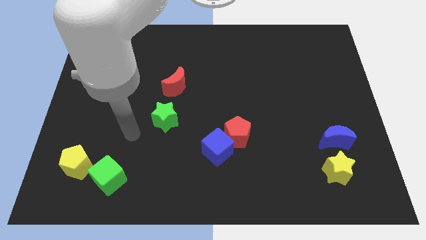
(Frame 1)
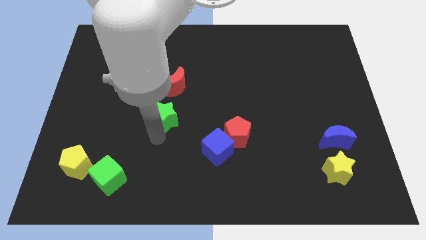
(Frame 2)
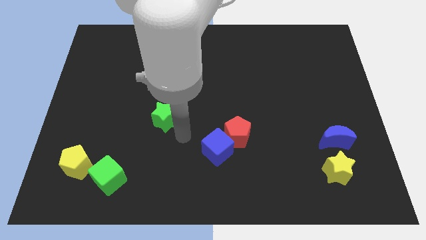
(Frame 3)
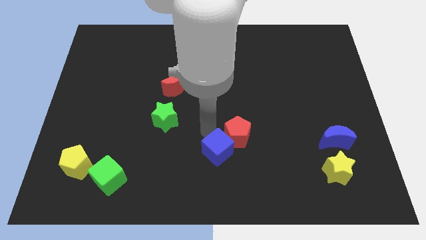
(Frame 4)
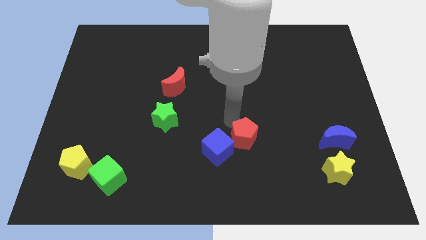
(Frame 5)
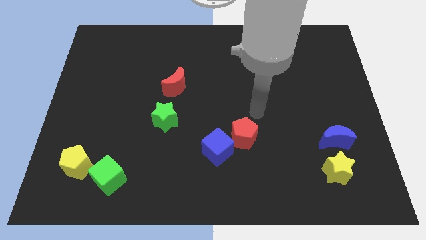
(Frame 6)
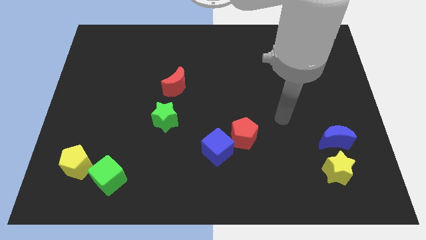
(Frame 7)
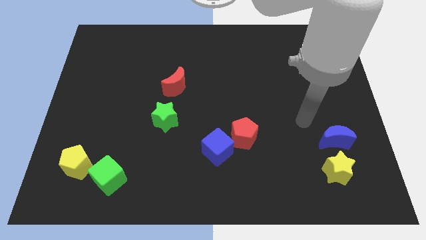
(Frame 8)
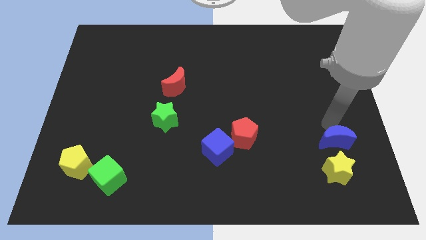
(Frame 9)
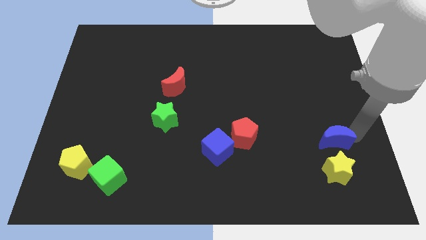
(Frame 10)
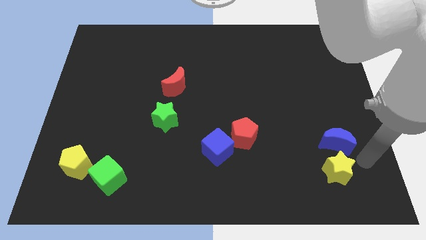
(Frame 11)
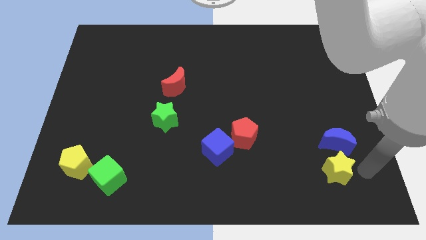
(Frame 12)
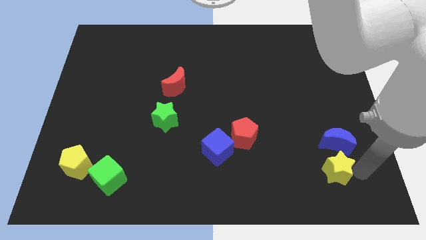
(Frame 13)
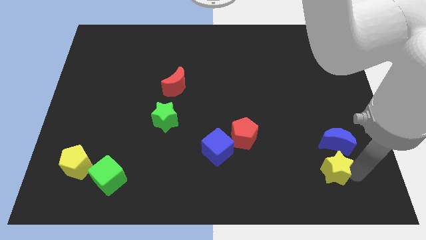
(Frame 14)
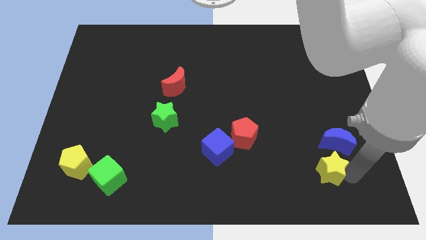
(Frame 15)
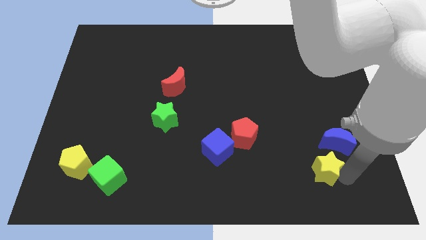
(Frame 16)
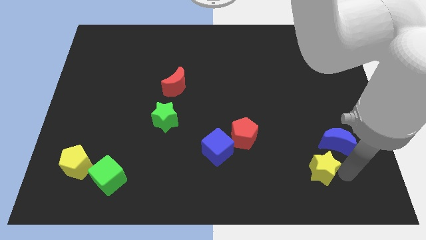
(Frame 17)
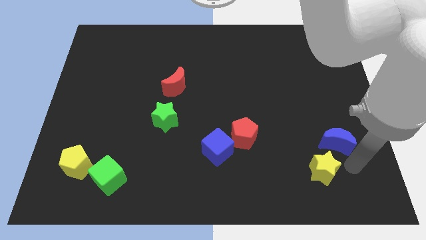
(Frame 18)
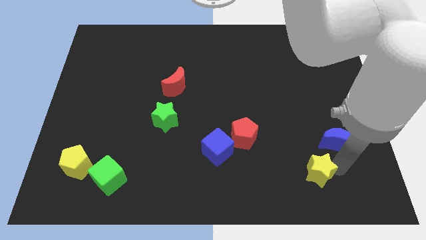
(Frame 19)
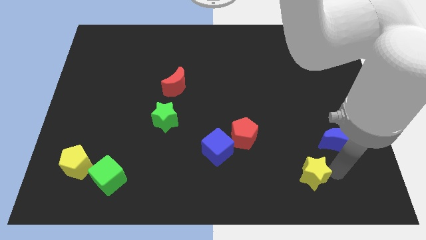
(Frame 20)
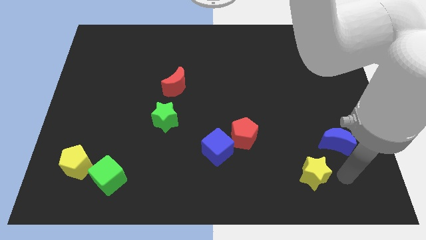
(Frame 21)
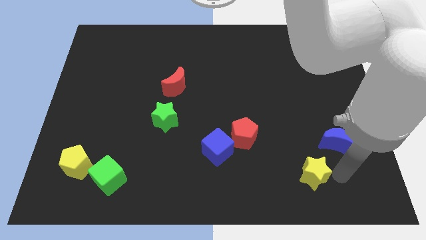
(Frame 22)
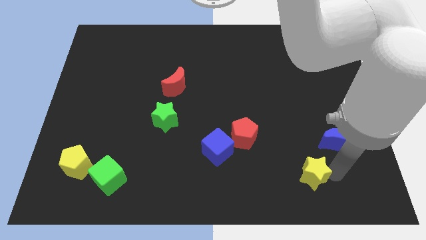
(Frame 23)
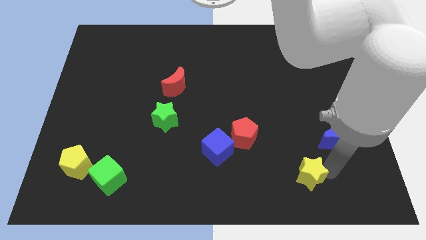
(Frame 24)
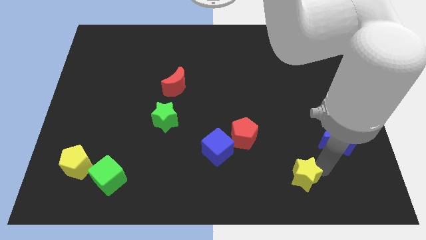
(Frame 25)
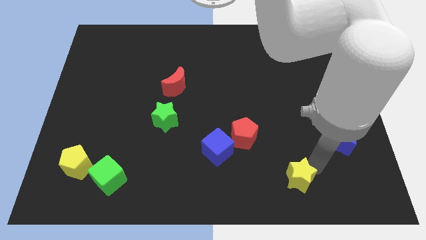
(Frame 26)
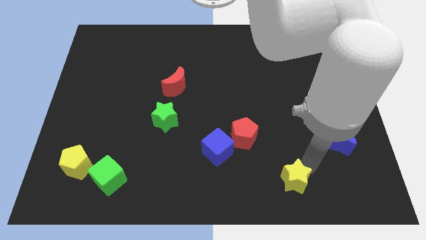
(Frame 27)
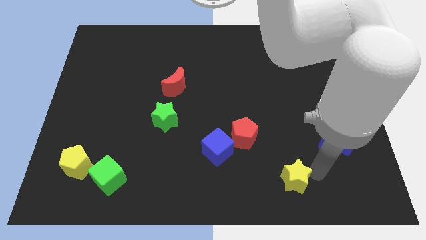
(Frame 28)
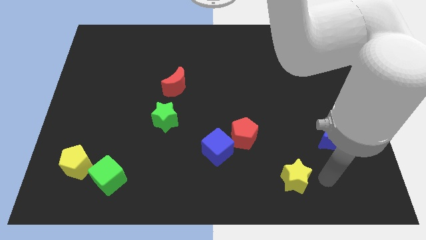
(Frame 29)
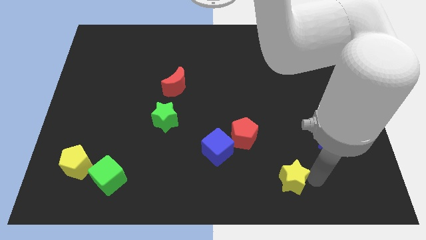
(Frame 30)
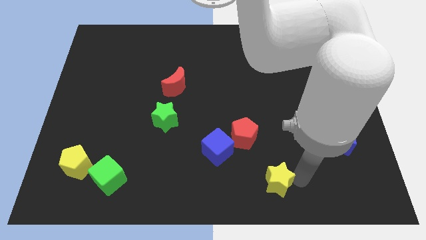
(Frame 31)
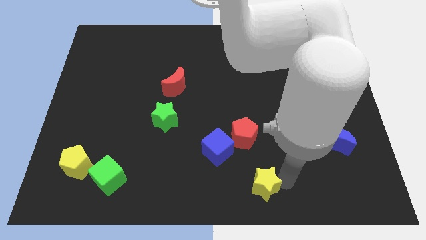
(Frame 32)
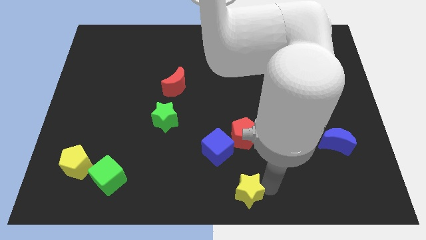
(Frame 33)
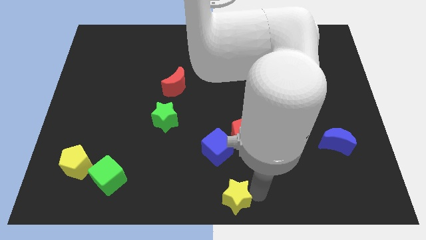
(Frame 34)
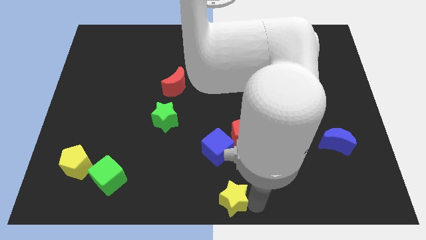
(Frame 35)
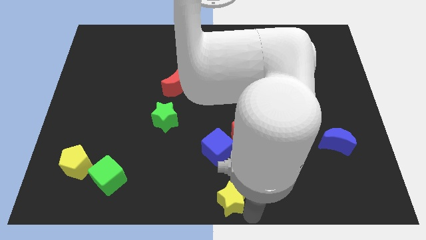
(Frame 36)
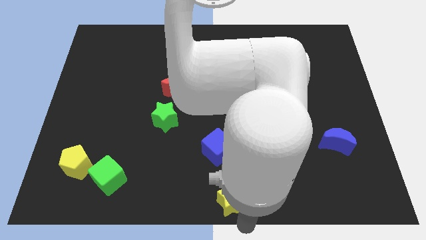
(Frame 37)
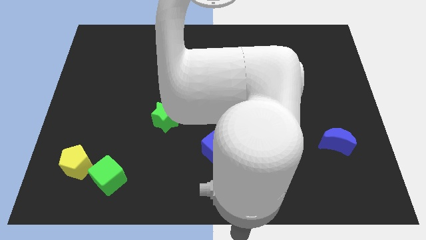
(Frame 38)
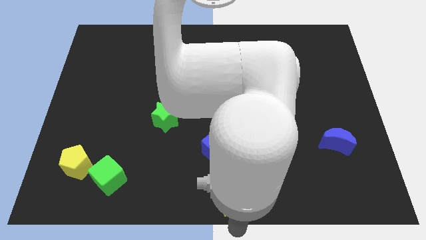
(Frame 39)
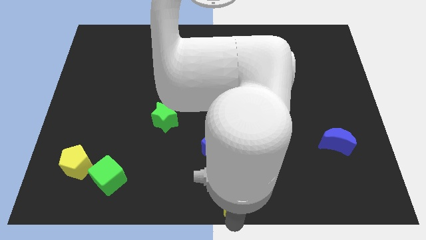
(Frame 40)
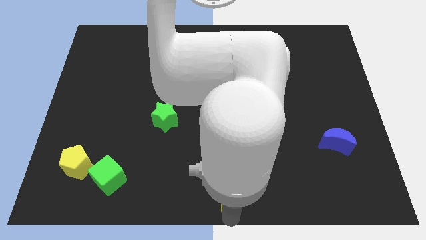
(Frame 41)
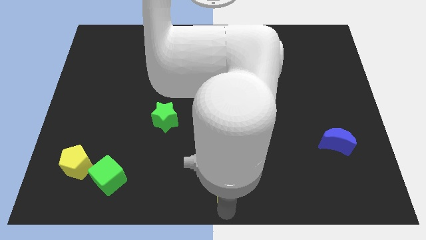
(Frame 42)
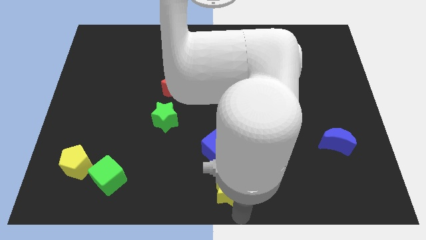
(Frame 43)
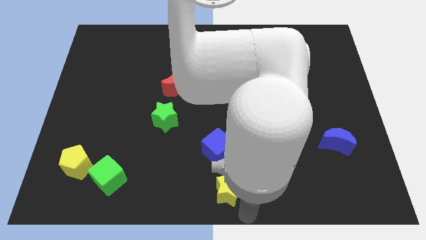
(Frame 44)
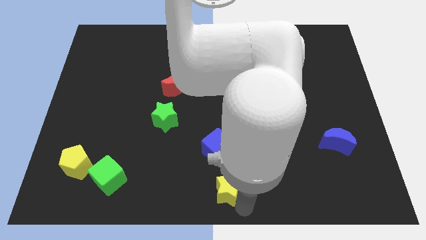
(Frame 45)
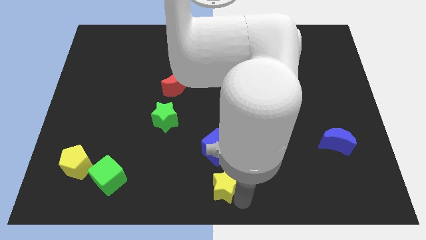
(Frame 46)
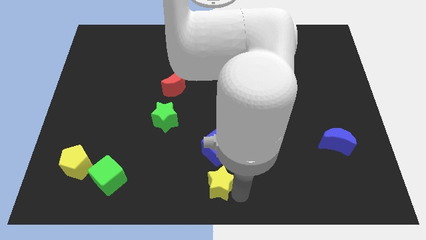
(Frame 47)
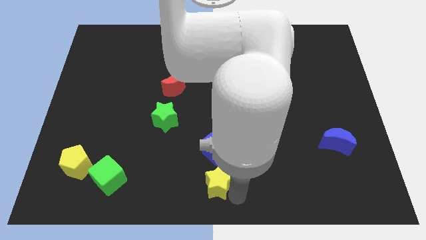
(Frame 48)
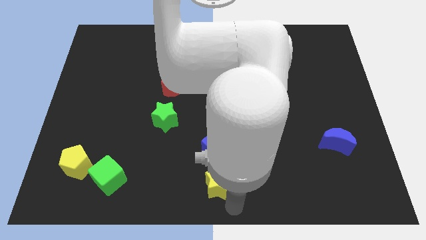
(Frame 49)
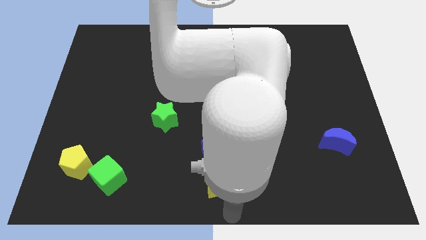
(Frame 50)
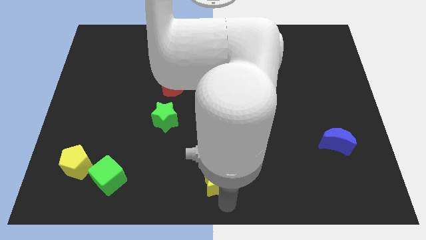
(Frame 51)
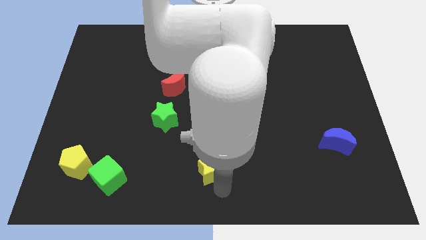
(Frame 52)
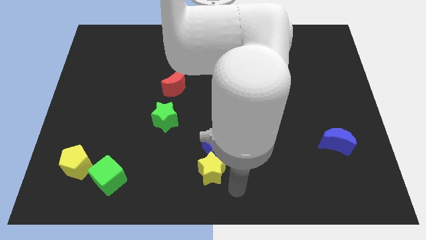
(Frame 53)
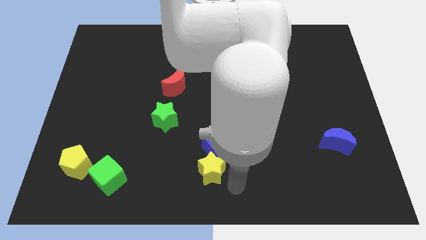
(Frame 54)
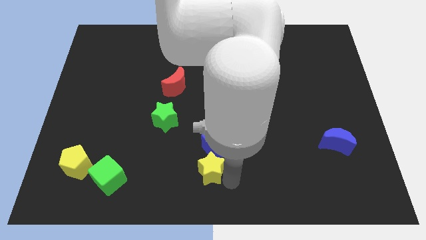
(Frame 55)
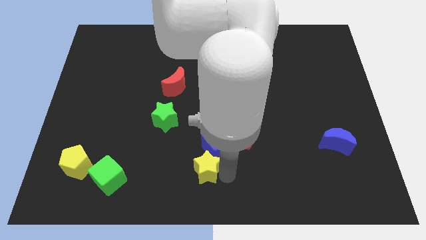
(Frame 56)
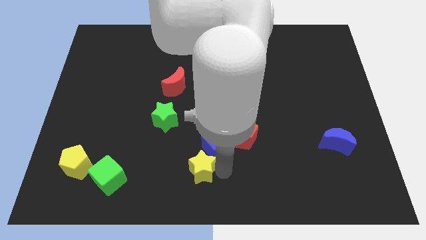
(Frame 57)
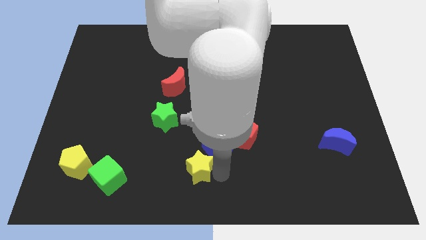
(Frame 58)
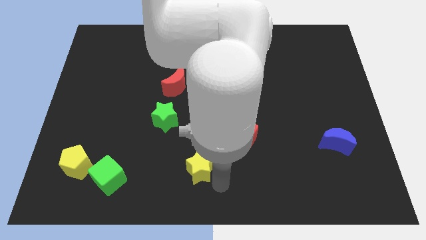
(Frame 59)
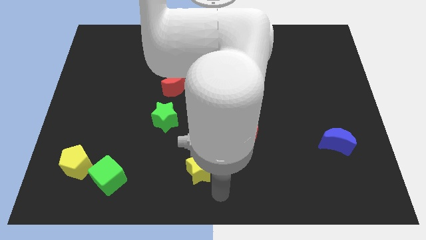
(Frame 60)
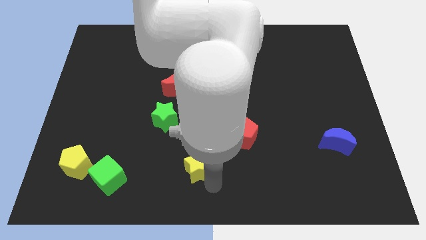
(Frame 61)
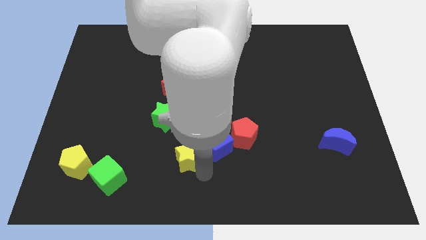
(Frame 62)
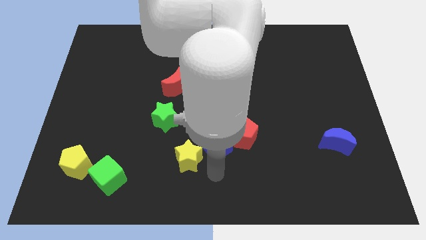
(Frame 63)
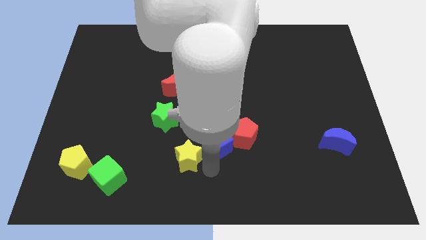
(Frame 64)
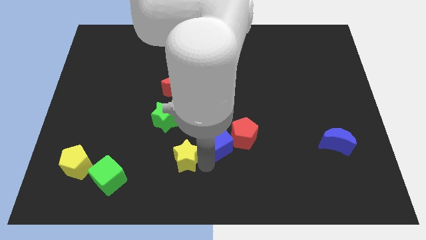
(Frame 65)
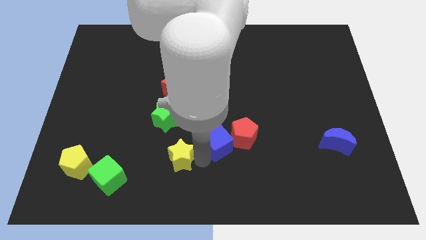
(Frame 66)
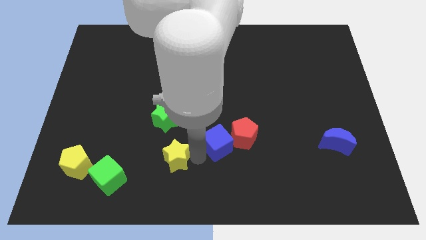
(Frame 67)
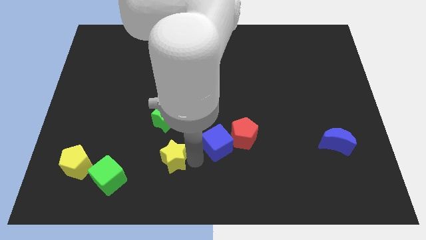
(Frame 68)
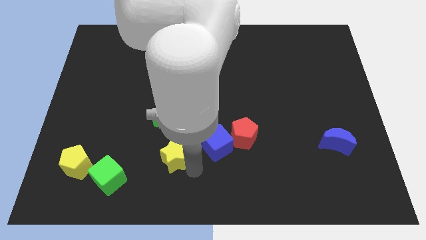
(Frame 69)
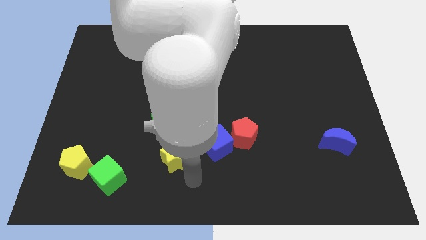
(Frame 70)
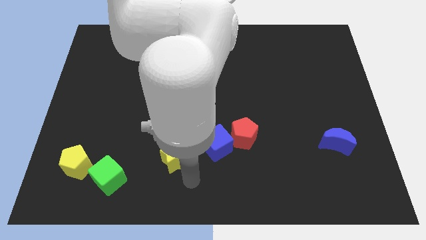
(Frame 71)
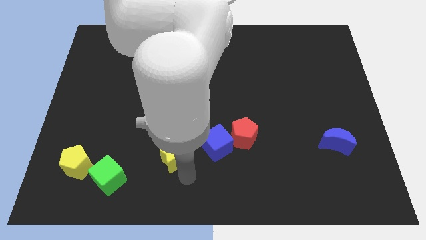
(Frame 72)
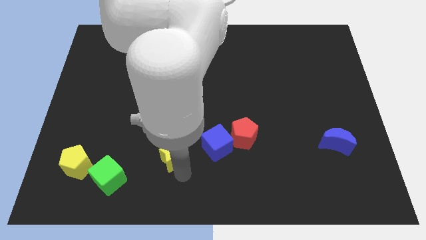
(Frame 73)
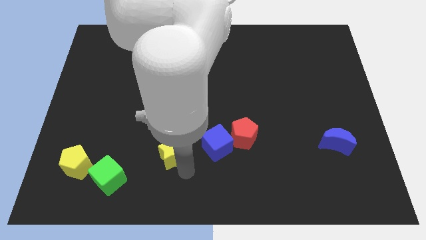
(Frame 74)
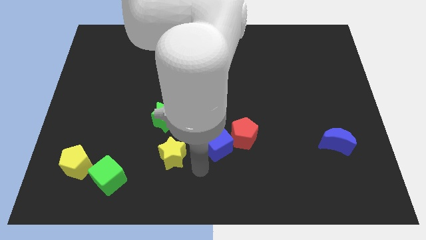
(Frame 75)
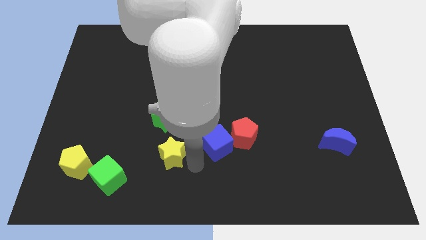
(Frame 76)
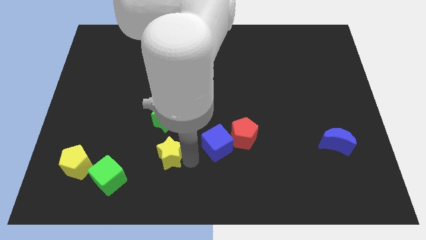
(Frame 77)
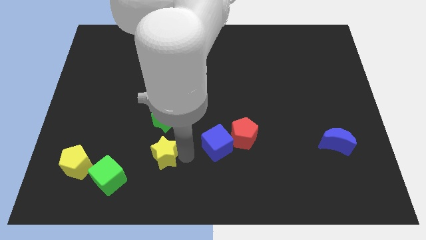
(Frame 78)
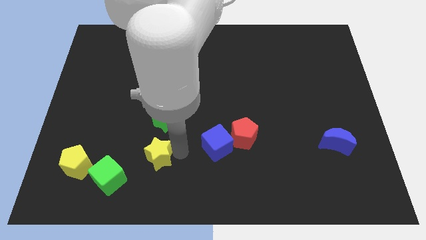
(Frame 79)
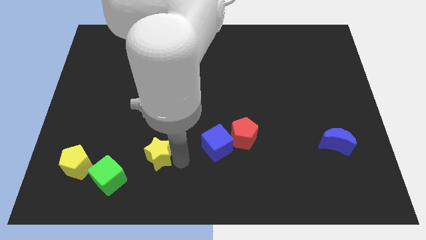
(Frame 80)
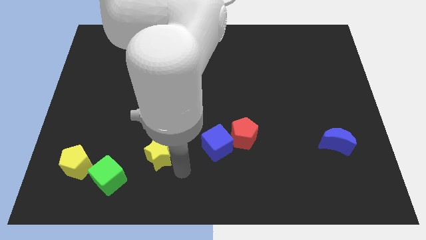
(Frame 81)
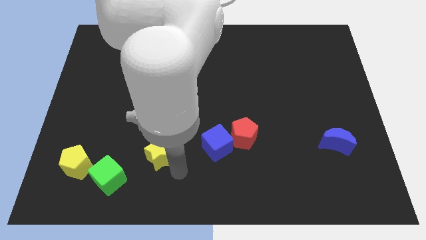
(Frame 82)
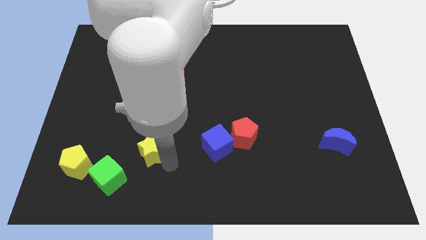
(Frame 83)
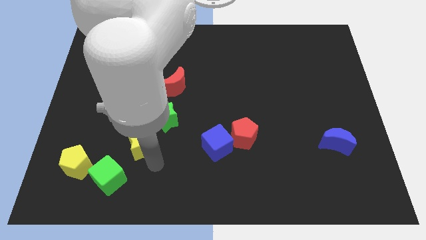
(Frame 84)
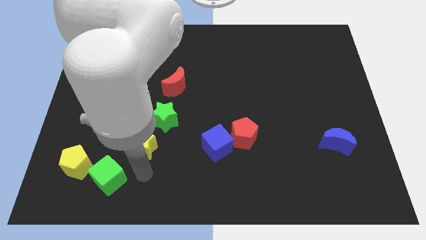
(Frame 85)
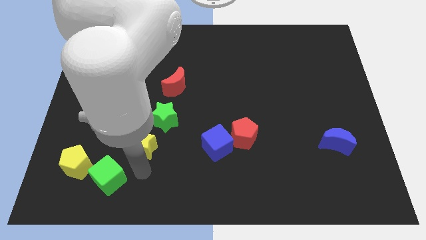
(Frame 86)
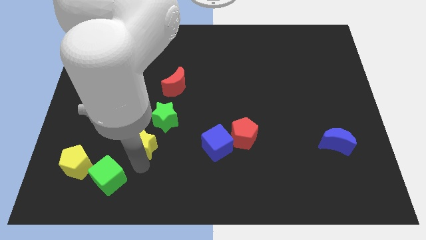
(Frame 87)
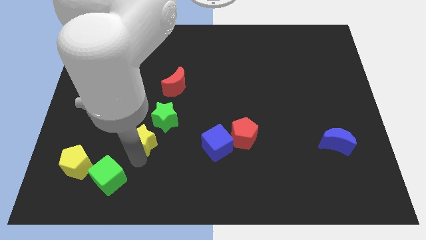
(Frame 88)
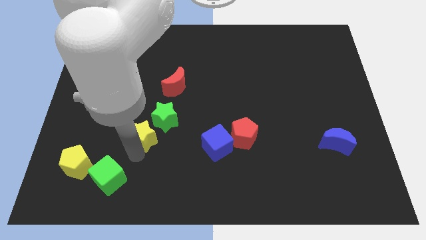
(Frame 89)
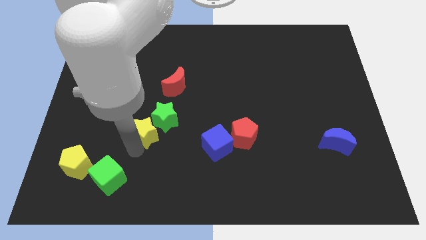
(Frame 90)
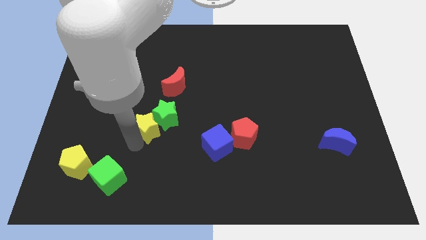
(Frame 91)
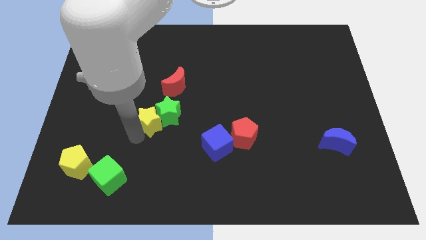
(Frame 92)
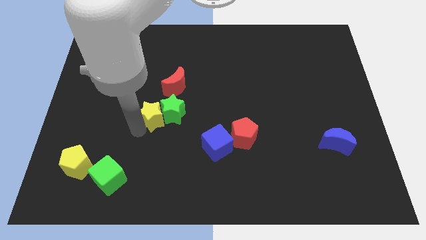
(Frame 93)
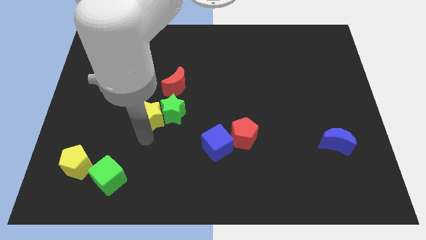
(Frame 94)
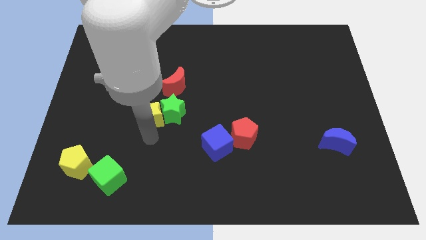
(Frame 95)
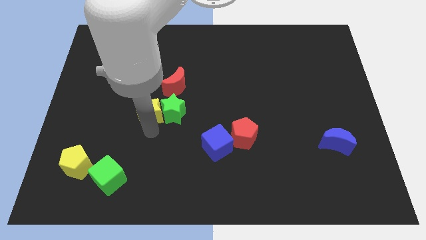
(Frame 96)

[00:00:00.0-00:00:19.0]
slide the yellow star to the top left side of the green star
